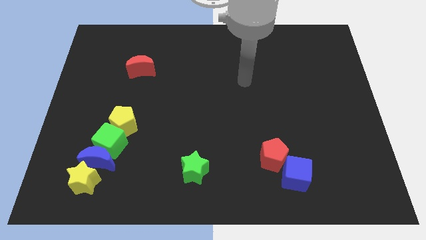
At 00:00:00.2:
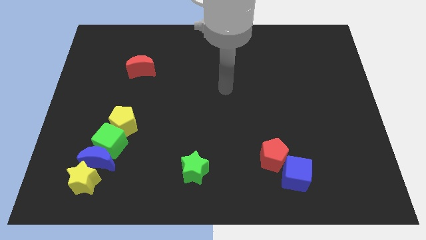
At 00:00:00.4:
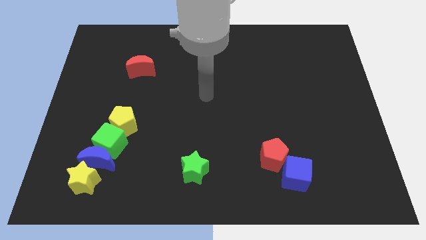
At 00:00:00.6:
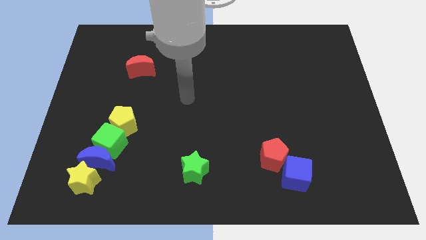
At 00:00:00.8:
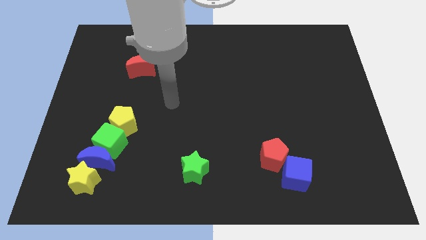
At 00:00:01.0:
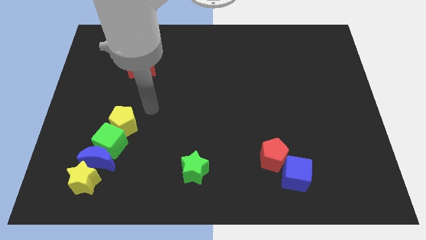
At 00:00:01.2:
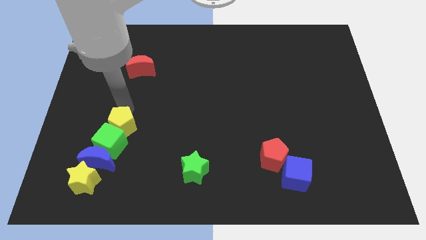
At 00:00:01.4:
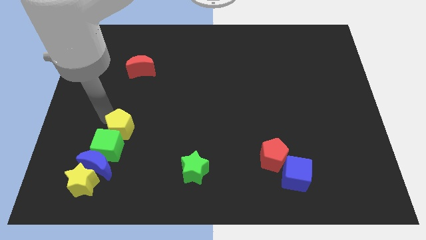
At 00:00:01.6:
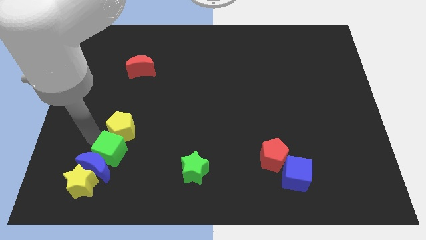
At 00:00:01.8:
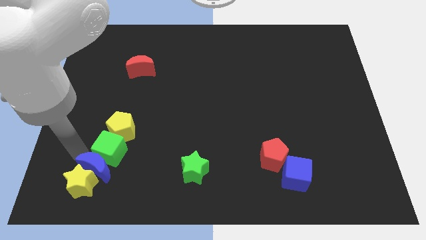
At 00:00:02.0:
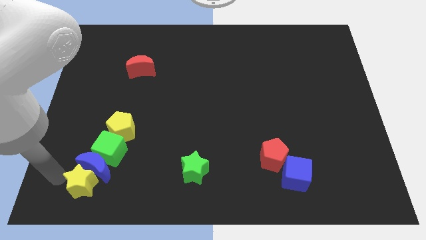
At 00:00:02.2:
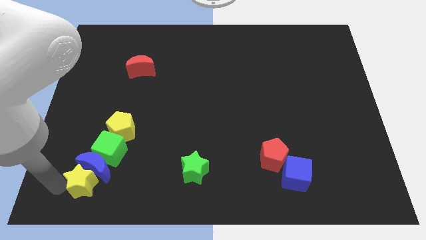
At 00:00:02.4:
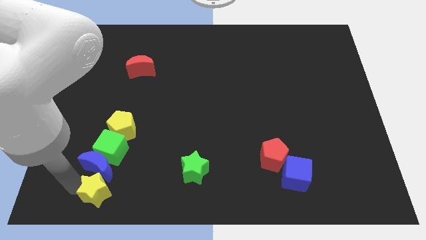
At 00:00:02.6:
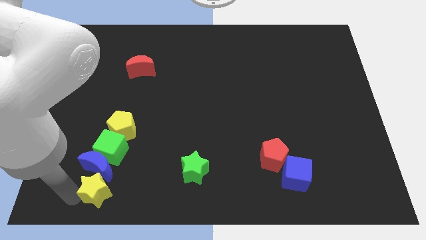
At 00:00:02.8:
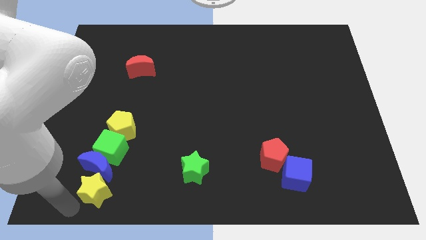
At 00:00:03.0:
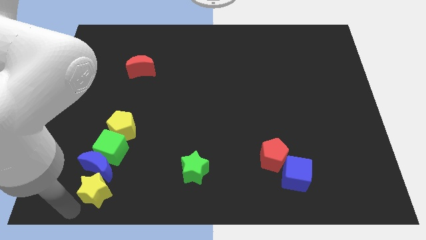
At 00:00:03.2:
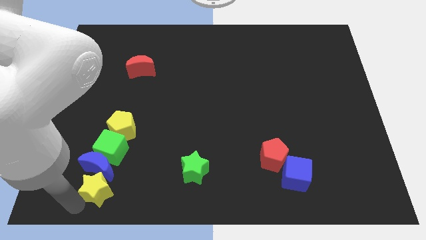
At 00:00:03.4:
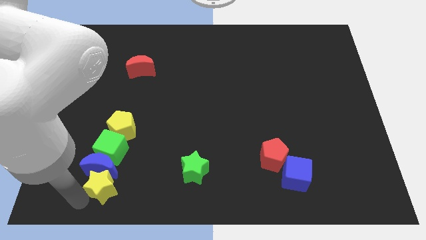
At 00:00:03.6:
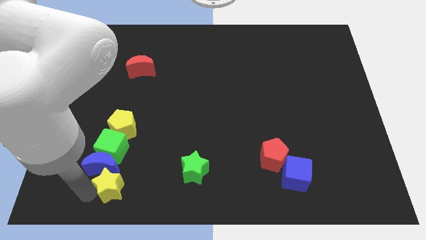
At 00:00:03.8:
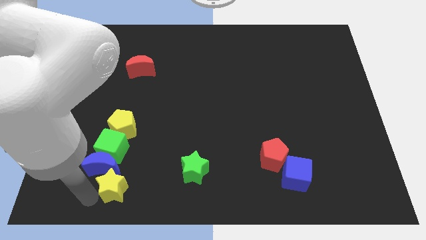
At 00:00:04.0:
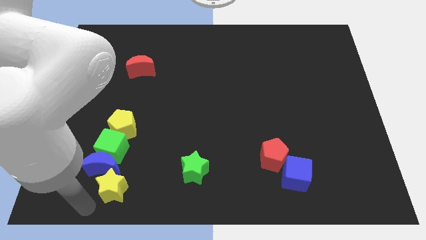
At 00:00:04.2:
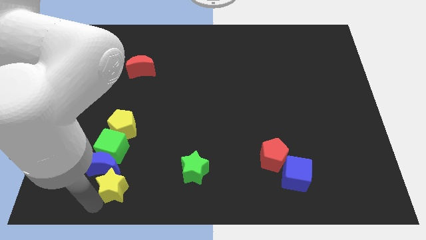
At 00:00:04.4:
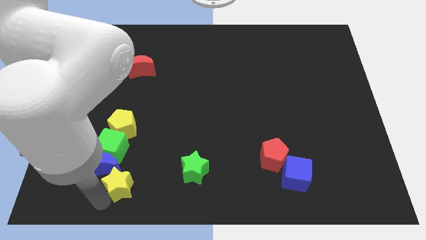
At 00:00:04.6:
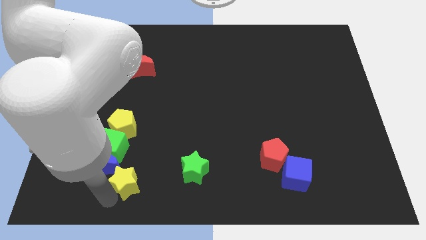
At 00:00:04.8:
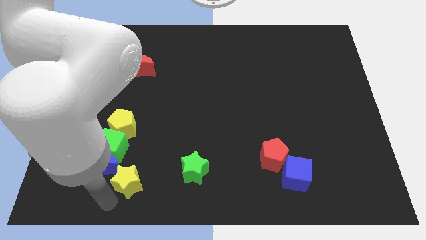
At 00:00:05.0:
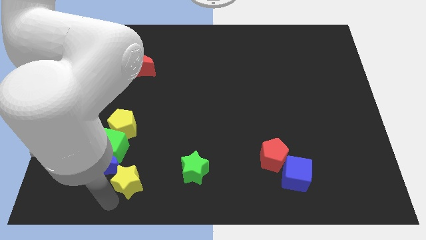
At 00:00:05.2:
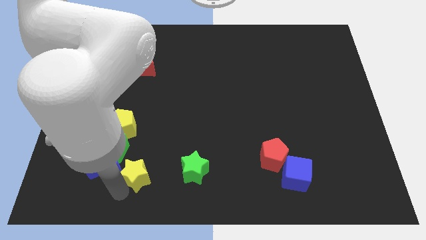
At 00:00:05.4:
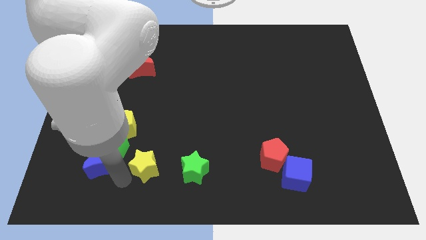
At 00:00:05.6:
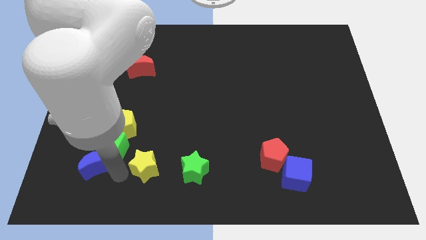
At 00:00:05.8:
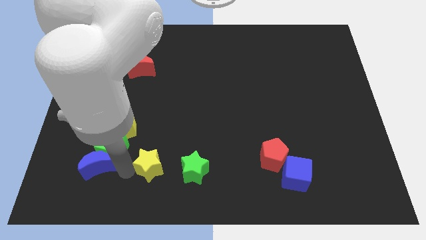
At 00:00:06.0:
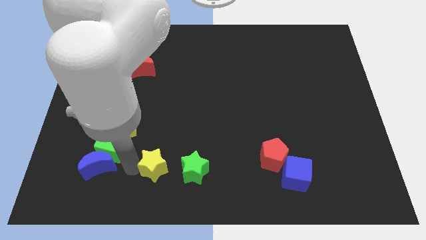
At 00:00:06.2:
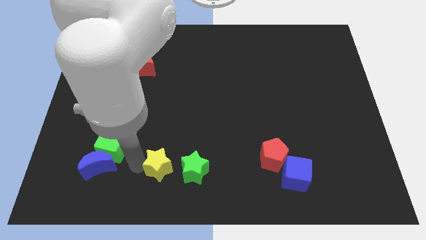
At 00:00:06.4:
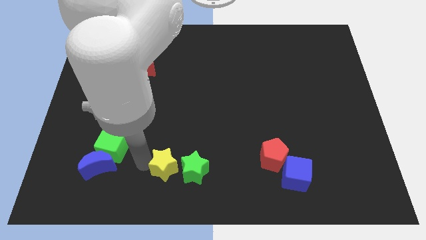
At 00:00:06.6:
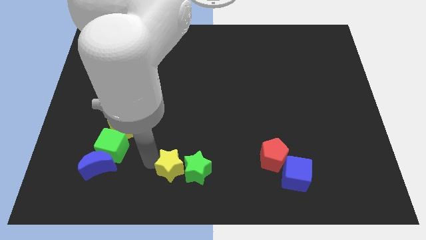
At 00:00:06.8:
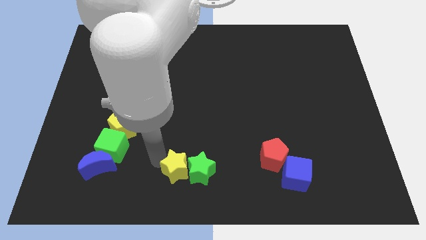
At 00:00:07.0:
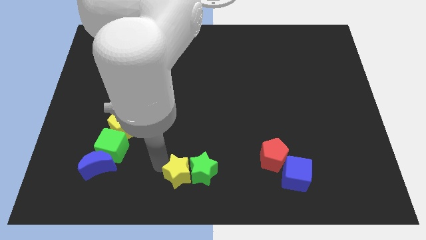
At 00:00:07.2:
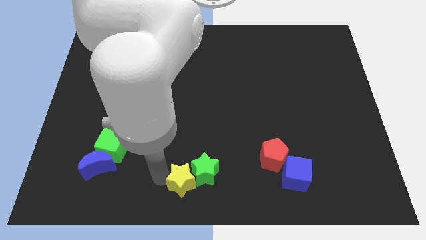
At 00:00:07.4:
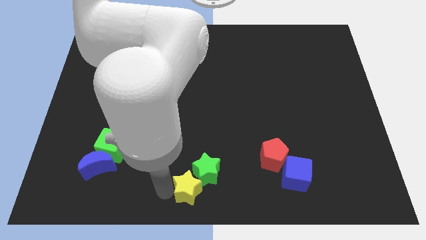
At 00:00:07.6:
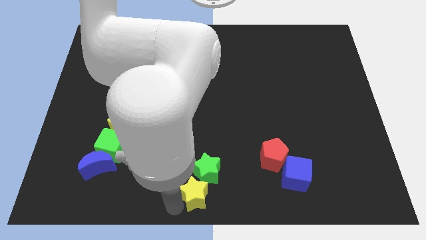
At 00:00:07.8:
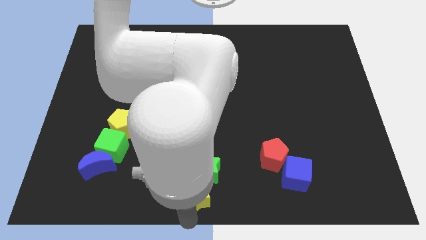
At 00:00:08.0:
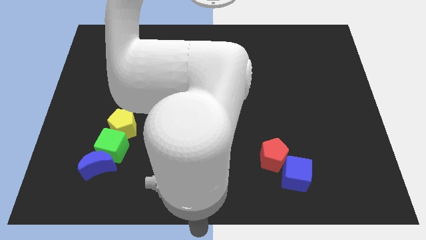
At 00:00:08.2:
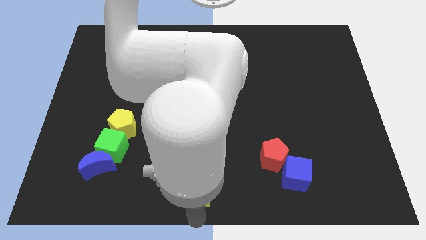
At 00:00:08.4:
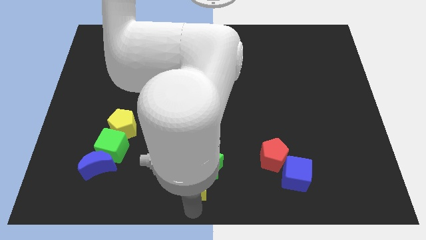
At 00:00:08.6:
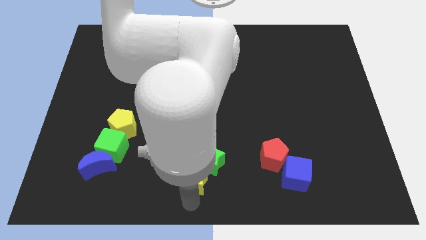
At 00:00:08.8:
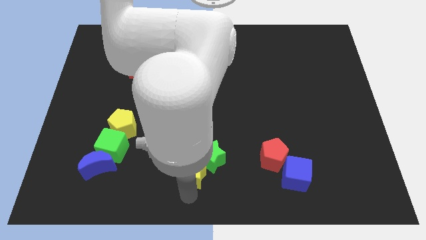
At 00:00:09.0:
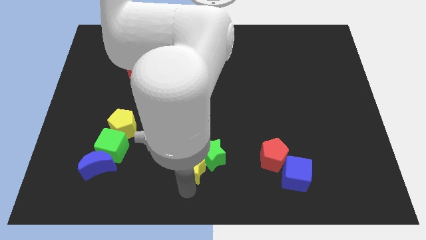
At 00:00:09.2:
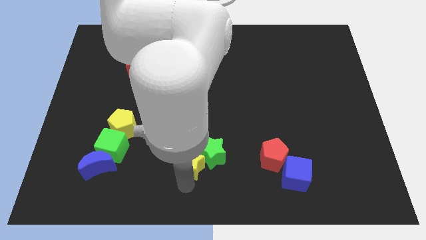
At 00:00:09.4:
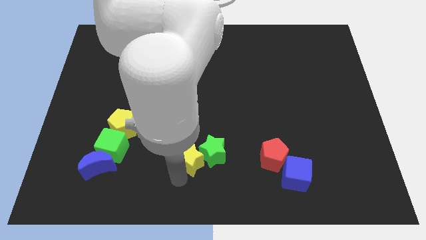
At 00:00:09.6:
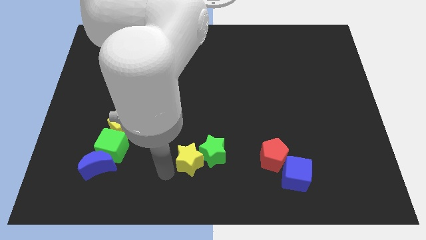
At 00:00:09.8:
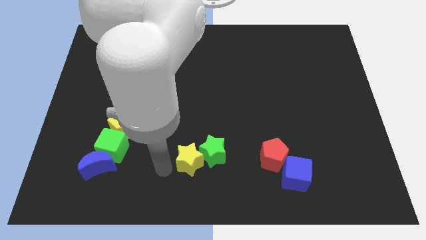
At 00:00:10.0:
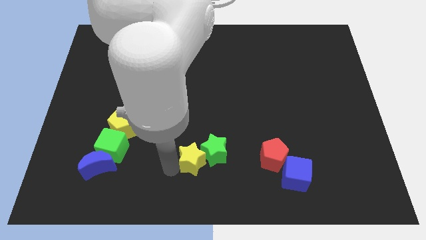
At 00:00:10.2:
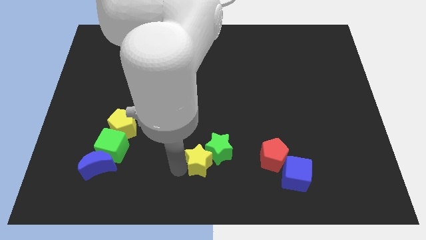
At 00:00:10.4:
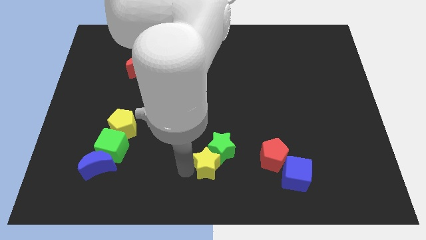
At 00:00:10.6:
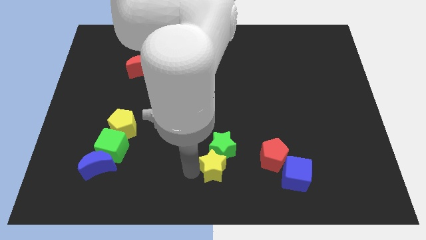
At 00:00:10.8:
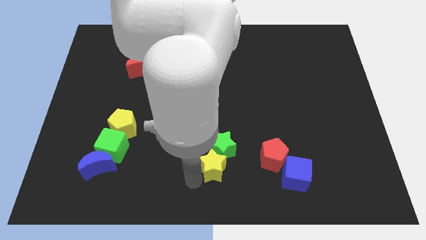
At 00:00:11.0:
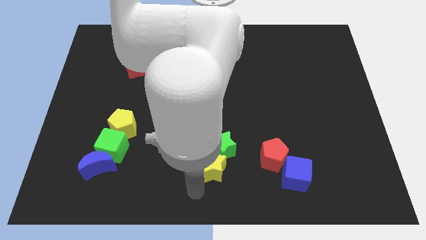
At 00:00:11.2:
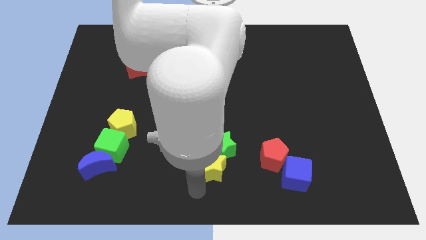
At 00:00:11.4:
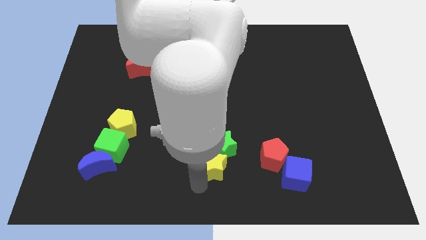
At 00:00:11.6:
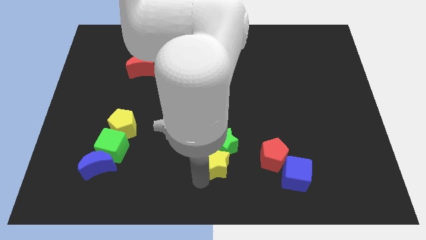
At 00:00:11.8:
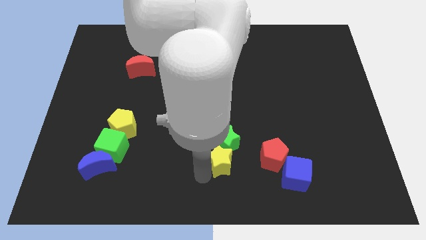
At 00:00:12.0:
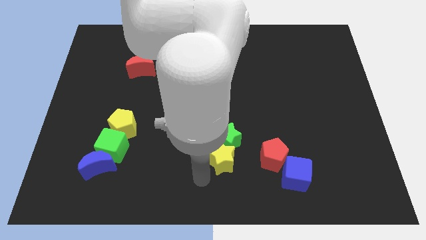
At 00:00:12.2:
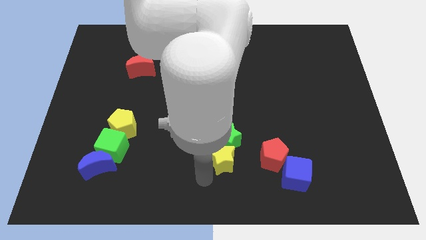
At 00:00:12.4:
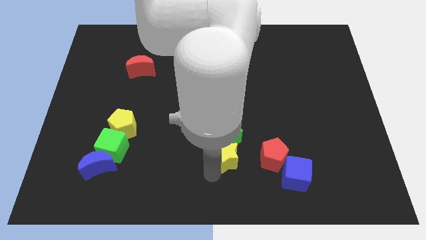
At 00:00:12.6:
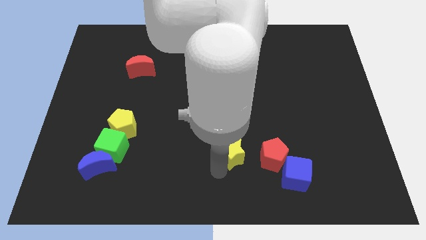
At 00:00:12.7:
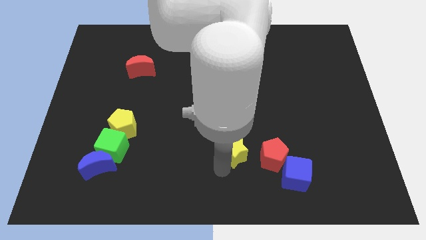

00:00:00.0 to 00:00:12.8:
push the yellow star to the top left of the red pentagon
